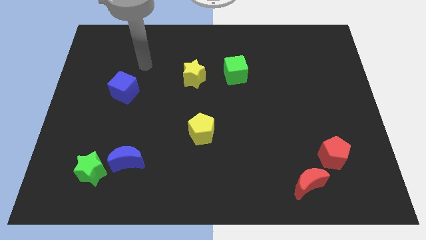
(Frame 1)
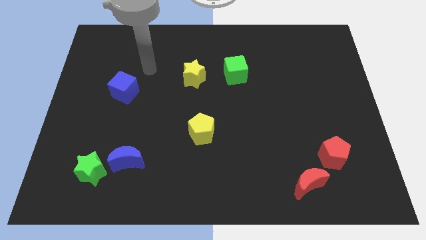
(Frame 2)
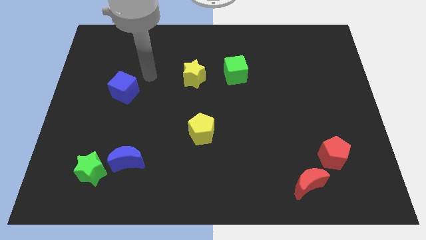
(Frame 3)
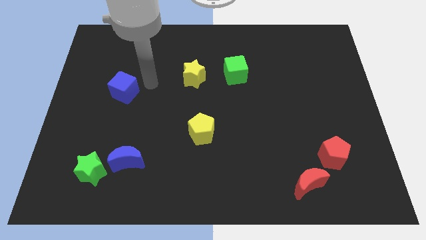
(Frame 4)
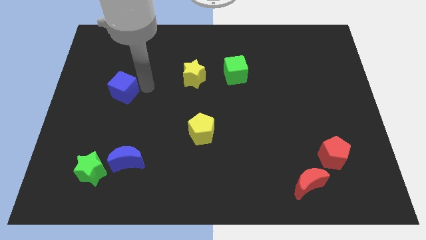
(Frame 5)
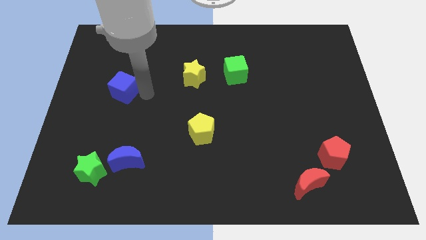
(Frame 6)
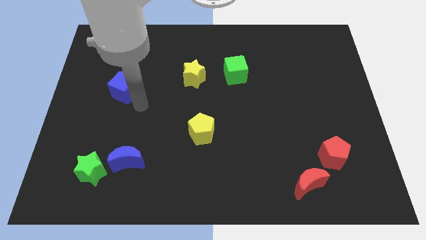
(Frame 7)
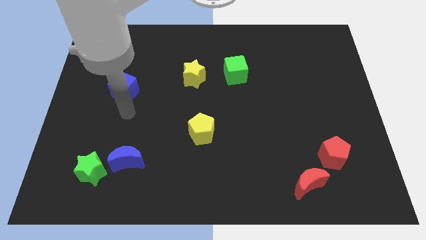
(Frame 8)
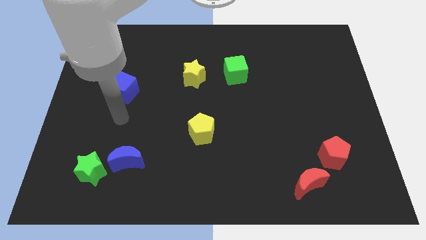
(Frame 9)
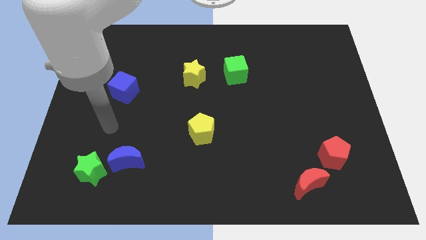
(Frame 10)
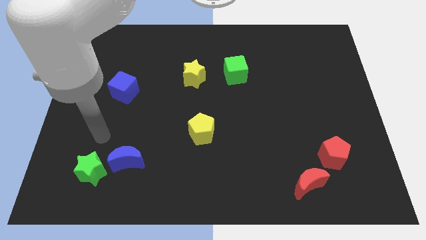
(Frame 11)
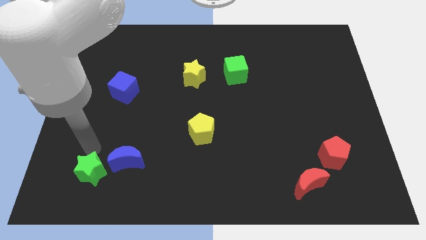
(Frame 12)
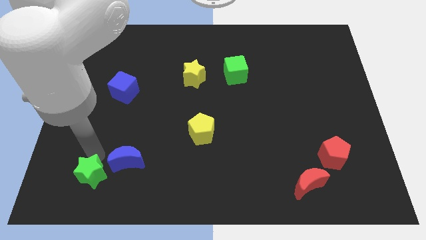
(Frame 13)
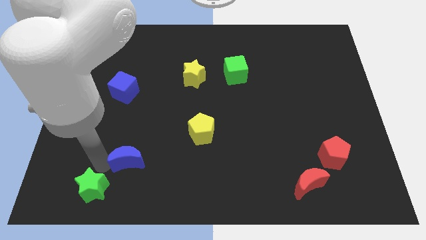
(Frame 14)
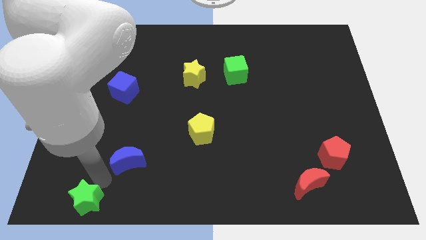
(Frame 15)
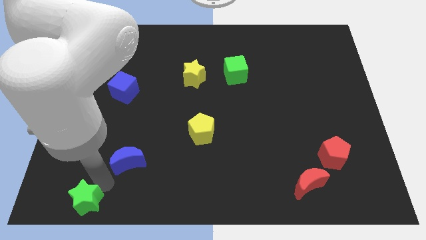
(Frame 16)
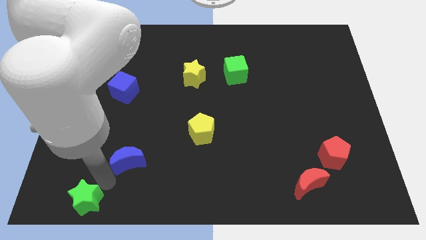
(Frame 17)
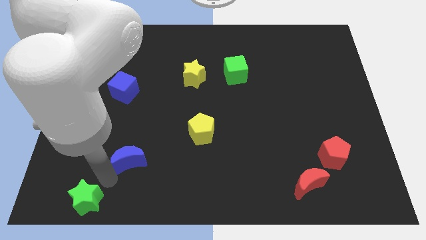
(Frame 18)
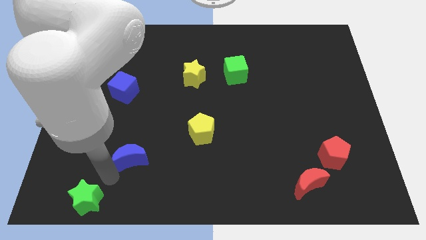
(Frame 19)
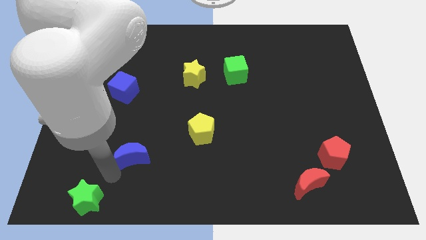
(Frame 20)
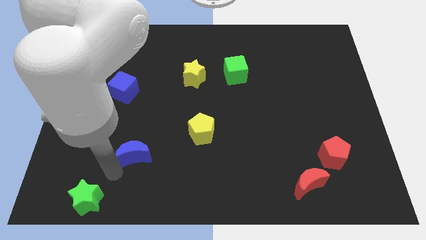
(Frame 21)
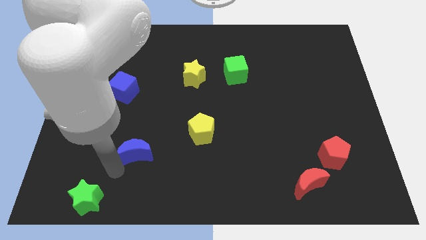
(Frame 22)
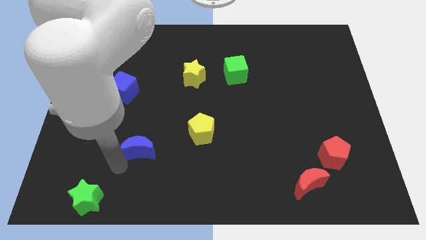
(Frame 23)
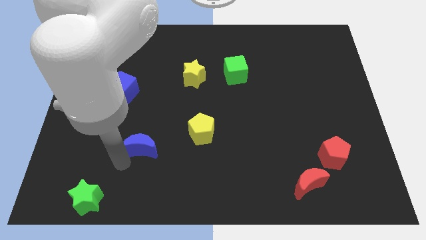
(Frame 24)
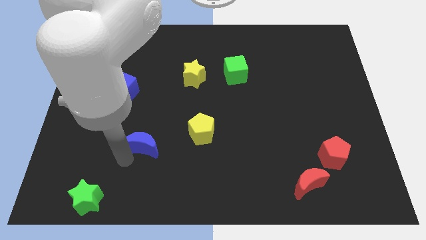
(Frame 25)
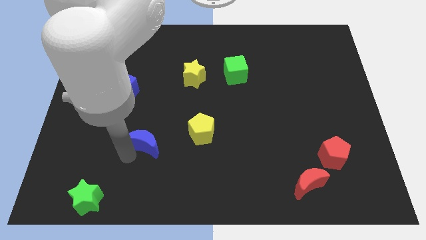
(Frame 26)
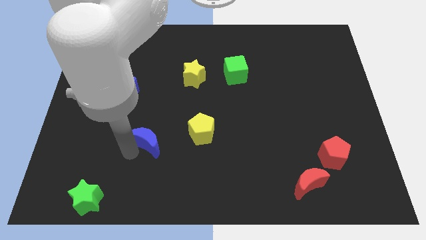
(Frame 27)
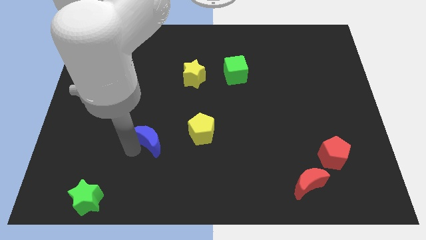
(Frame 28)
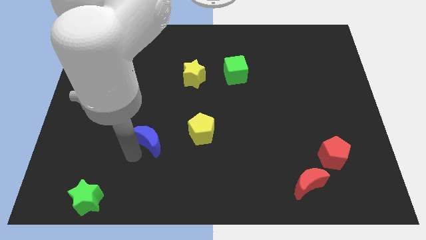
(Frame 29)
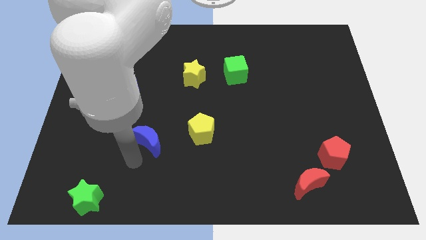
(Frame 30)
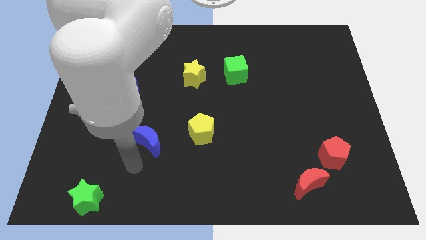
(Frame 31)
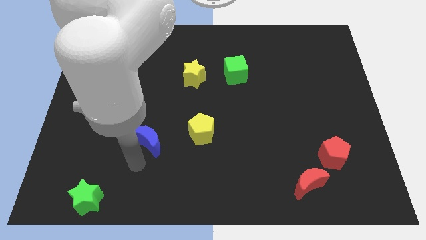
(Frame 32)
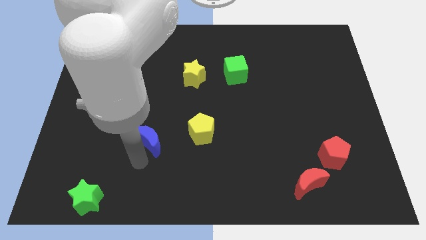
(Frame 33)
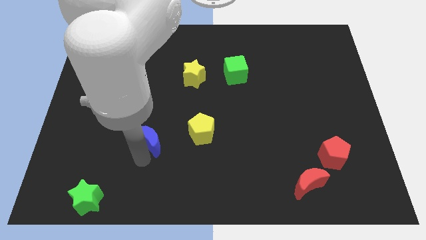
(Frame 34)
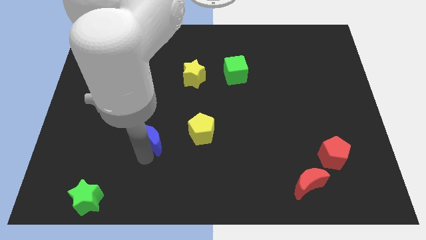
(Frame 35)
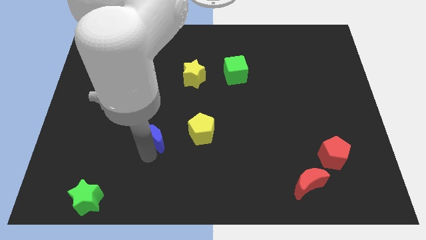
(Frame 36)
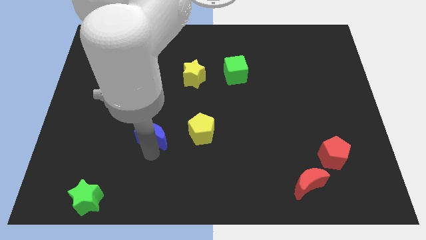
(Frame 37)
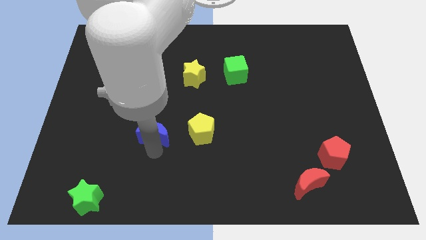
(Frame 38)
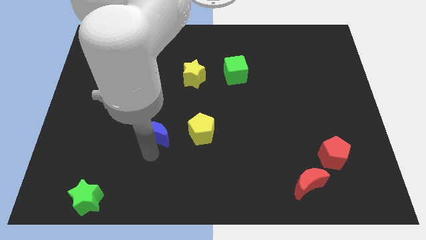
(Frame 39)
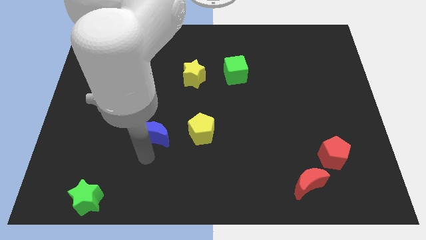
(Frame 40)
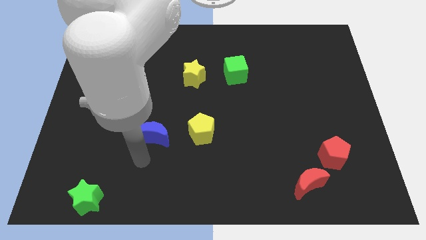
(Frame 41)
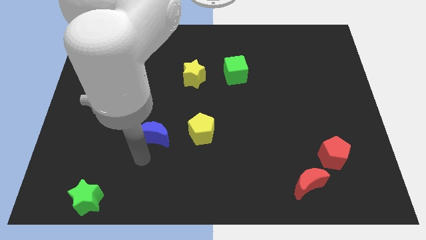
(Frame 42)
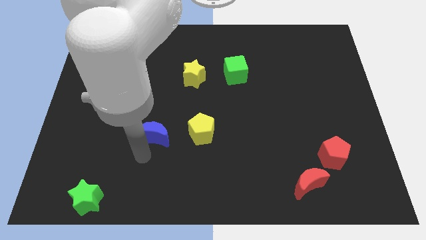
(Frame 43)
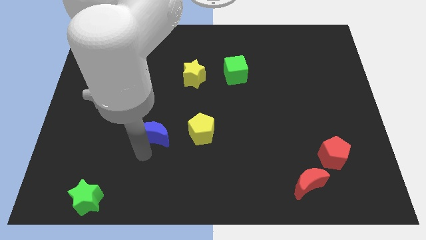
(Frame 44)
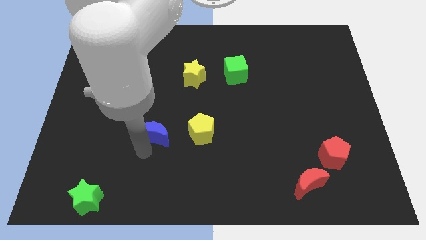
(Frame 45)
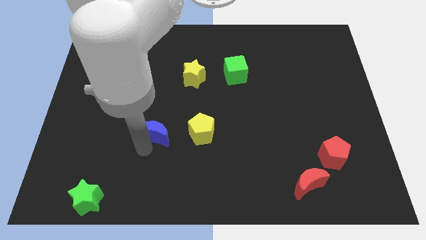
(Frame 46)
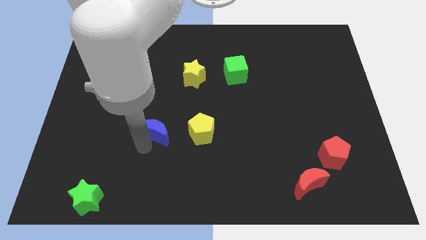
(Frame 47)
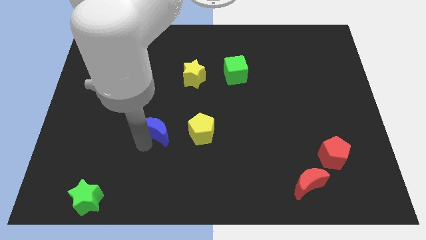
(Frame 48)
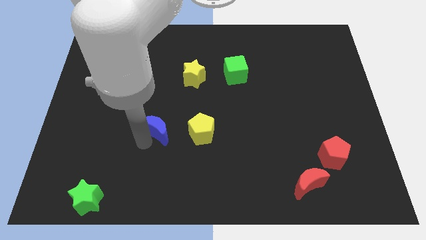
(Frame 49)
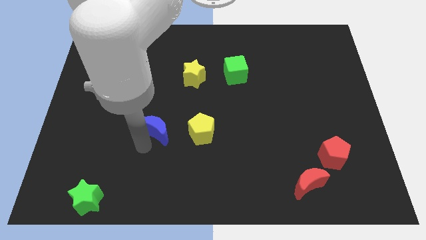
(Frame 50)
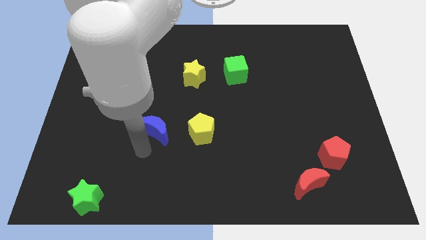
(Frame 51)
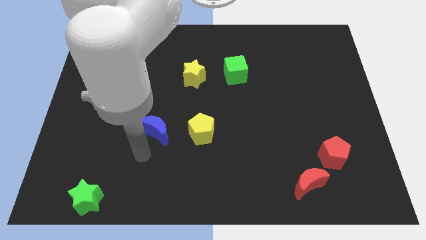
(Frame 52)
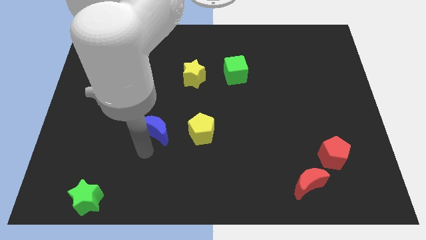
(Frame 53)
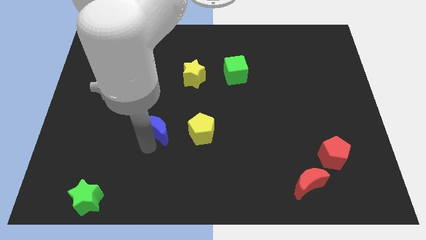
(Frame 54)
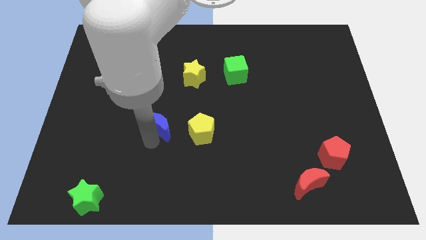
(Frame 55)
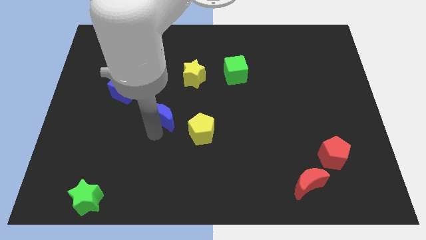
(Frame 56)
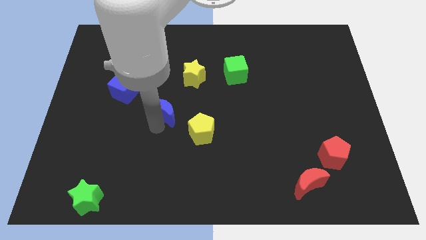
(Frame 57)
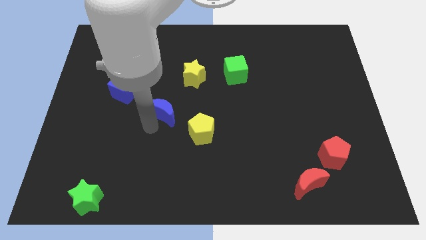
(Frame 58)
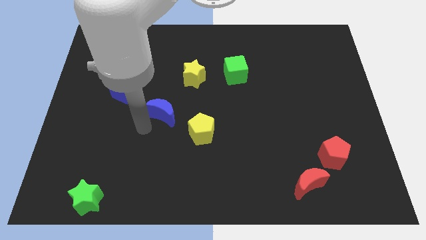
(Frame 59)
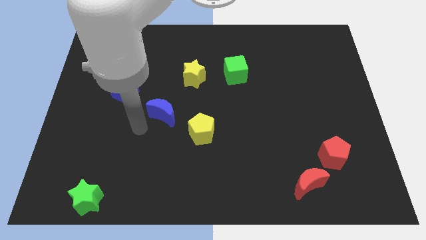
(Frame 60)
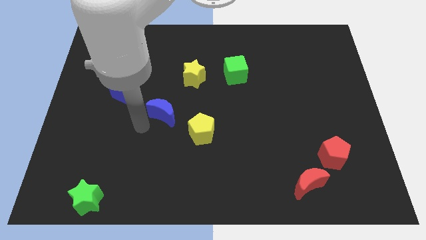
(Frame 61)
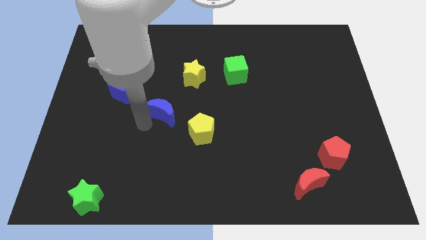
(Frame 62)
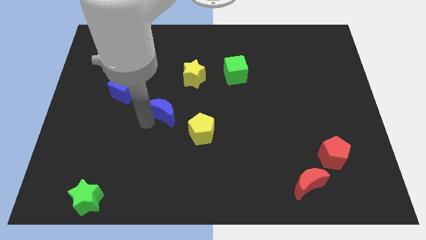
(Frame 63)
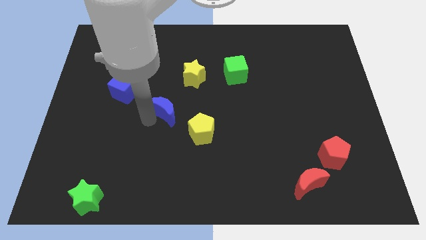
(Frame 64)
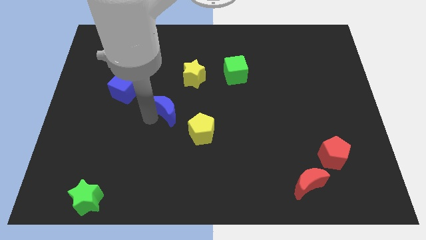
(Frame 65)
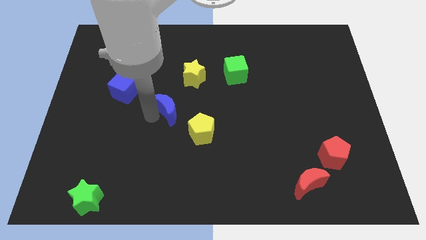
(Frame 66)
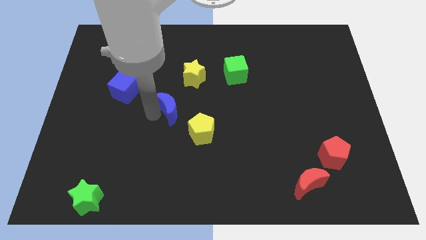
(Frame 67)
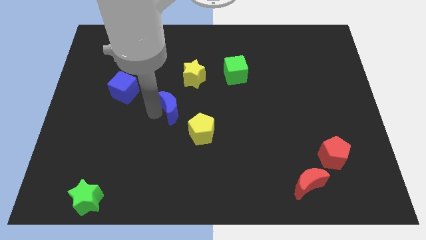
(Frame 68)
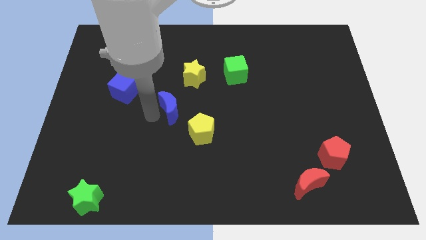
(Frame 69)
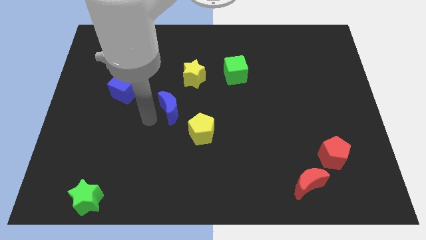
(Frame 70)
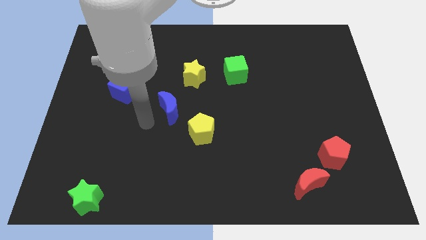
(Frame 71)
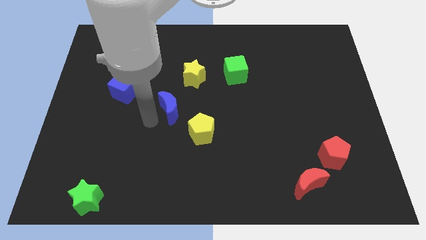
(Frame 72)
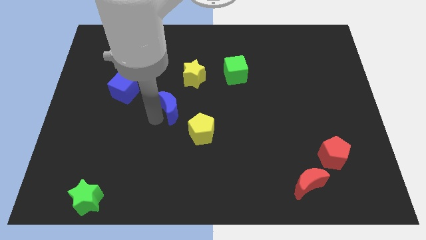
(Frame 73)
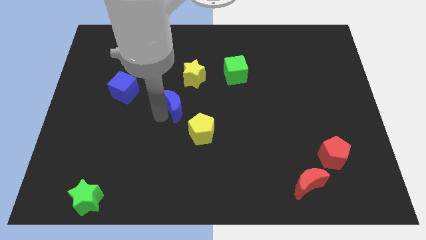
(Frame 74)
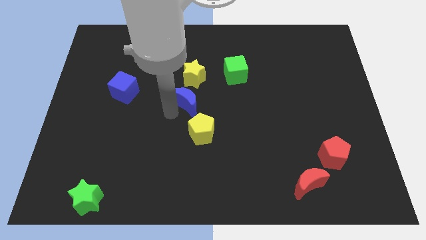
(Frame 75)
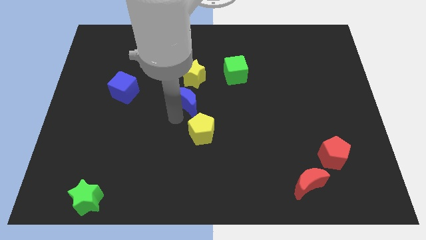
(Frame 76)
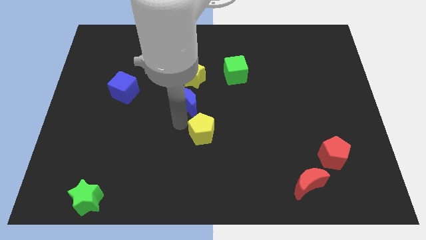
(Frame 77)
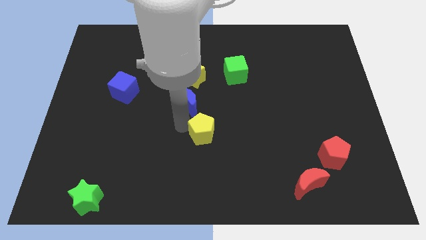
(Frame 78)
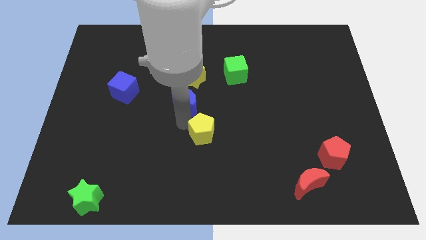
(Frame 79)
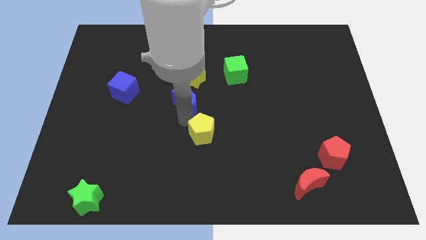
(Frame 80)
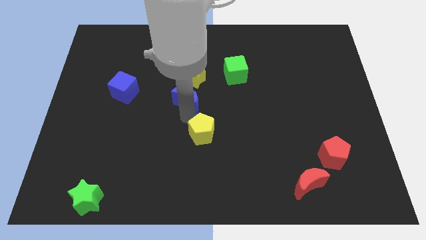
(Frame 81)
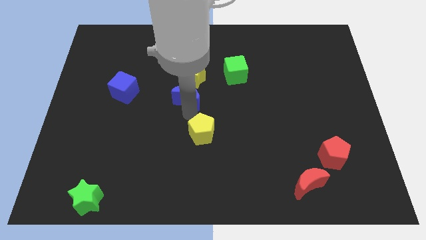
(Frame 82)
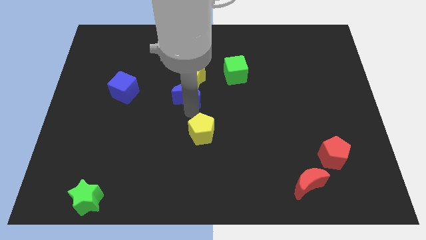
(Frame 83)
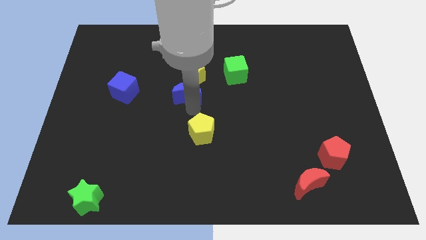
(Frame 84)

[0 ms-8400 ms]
slide the blue moon close to the yellow star
